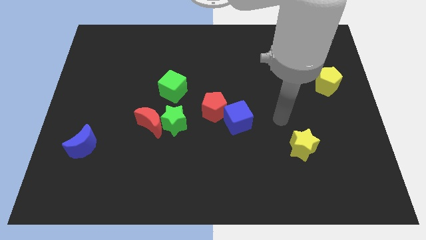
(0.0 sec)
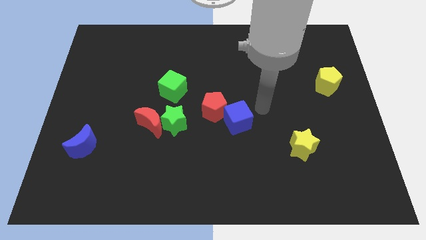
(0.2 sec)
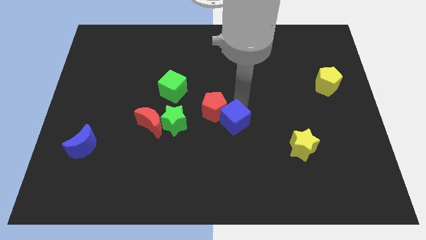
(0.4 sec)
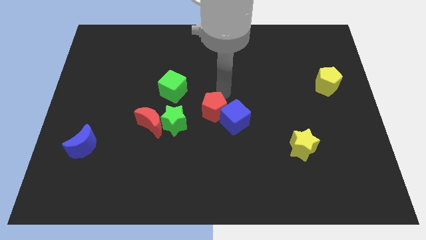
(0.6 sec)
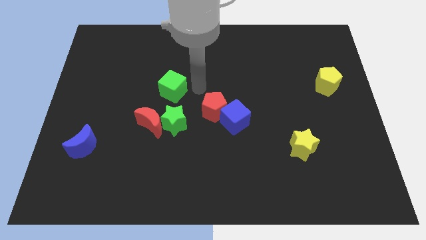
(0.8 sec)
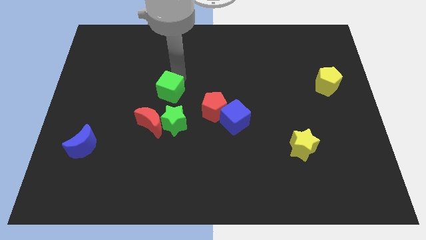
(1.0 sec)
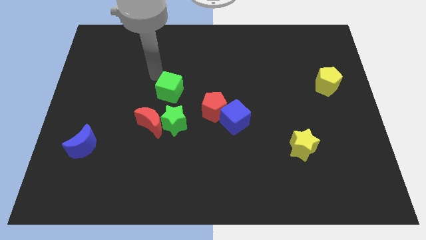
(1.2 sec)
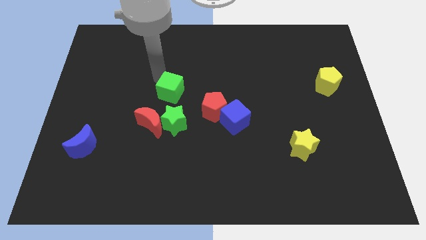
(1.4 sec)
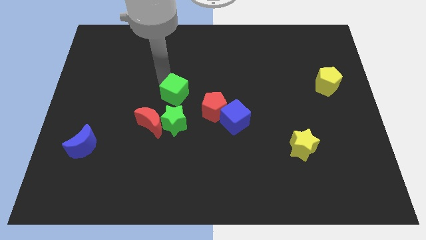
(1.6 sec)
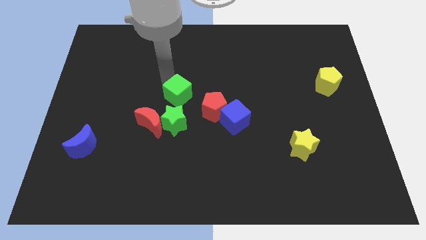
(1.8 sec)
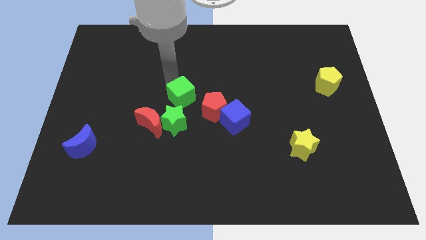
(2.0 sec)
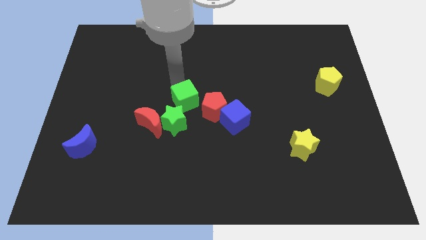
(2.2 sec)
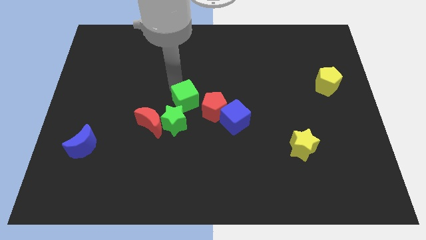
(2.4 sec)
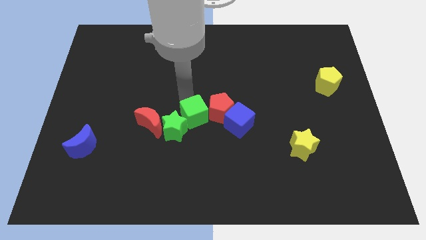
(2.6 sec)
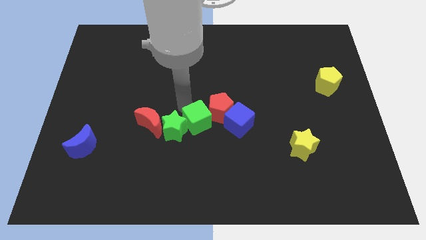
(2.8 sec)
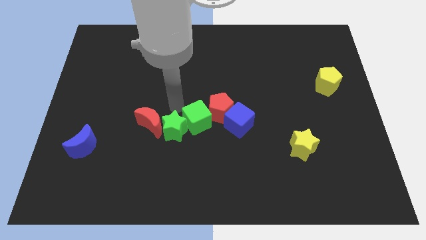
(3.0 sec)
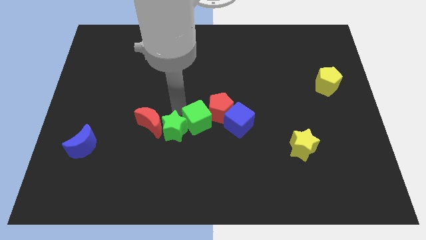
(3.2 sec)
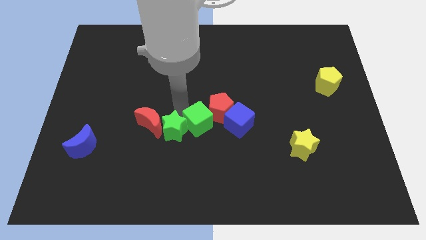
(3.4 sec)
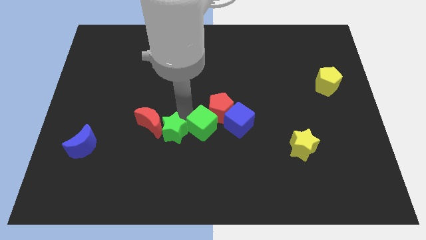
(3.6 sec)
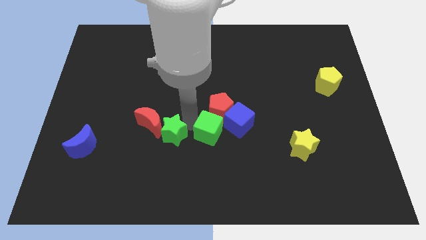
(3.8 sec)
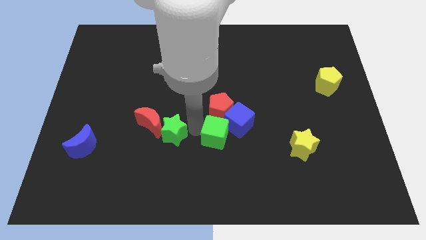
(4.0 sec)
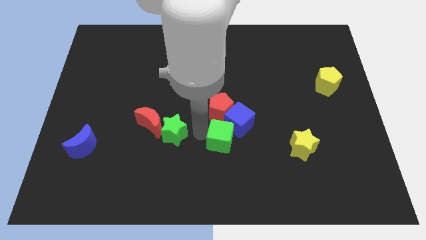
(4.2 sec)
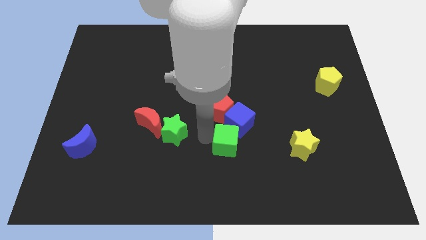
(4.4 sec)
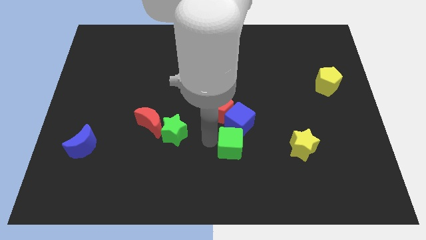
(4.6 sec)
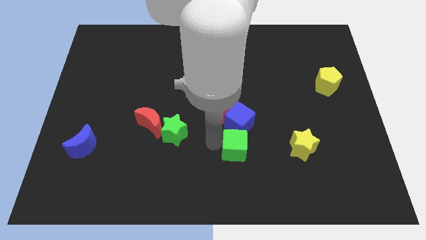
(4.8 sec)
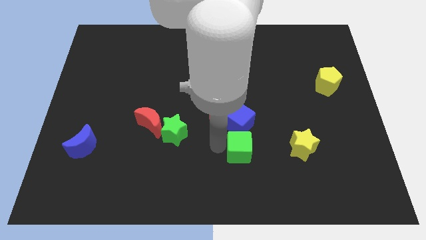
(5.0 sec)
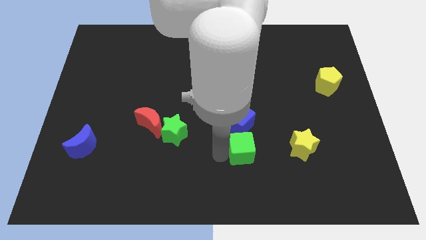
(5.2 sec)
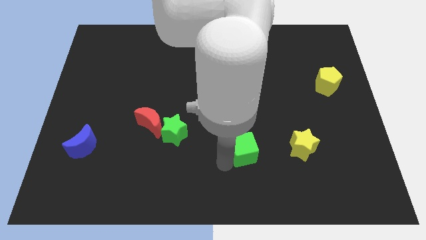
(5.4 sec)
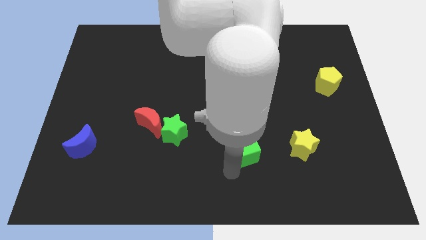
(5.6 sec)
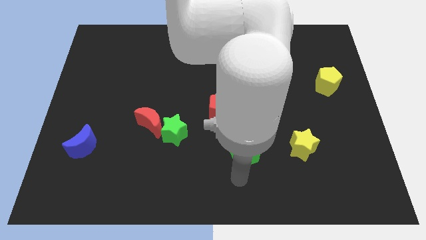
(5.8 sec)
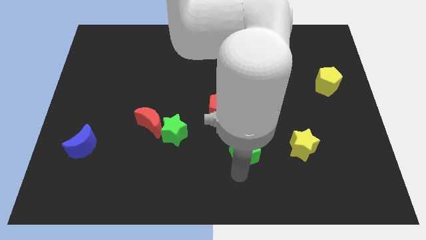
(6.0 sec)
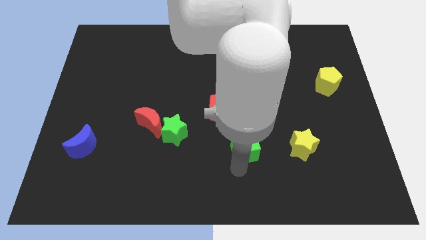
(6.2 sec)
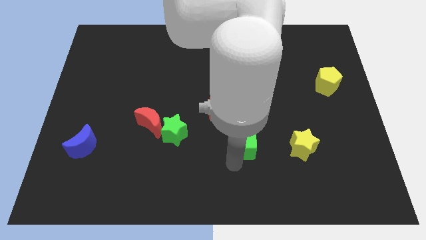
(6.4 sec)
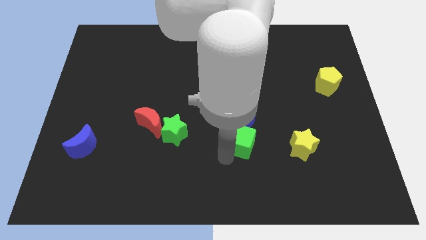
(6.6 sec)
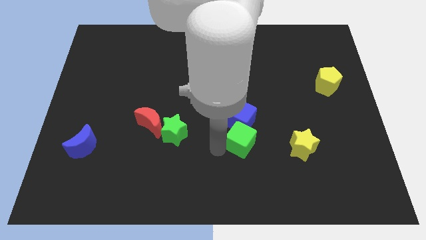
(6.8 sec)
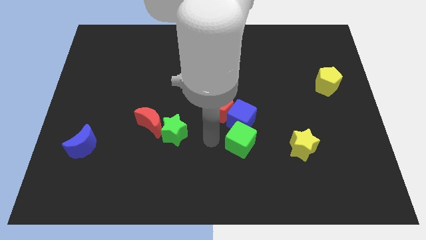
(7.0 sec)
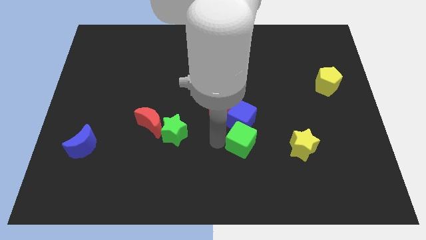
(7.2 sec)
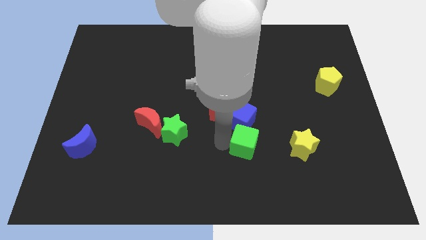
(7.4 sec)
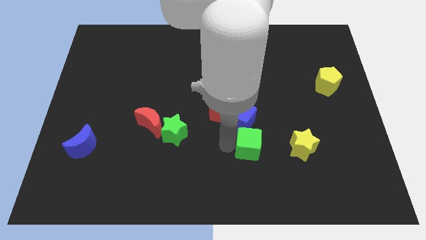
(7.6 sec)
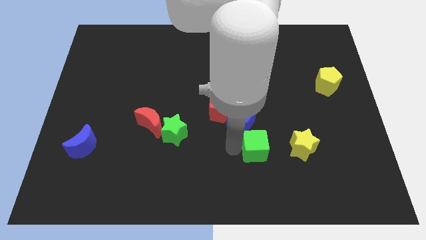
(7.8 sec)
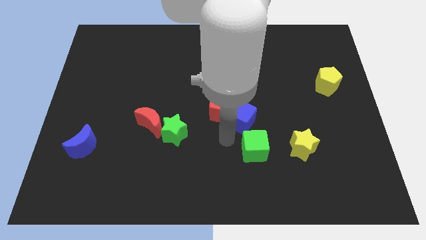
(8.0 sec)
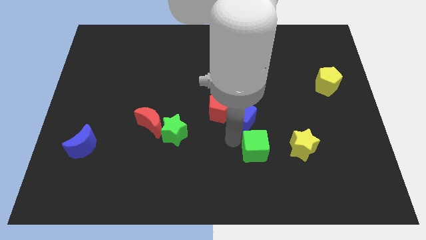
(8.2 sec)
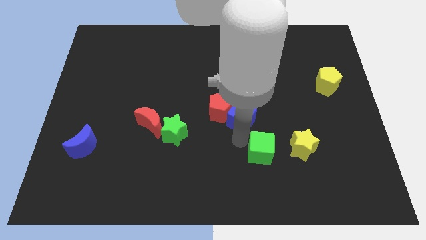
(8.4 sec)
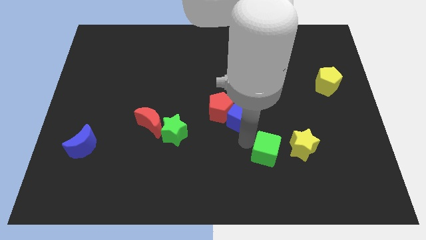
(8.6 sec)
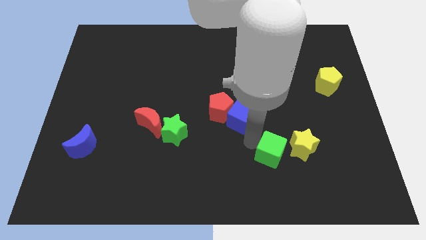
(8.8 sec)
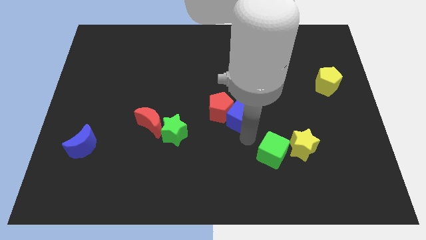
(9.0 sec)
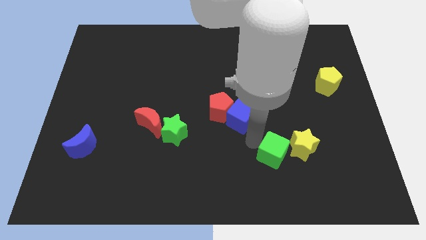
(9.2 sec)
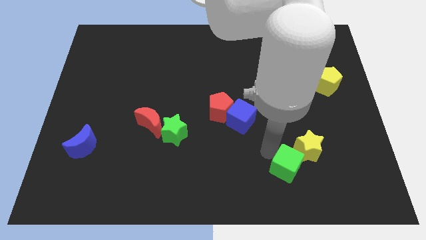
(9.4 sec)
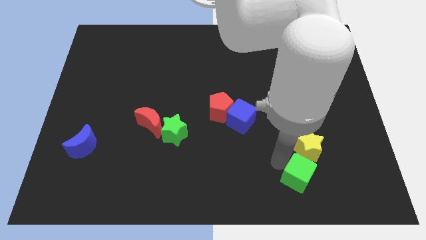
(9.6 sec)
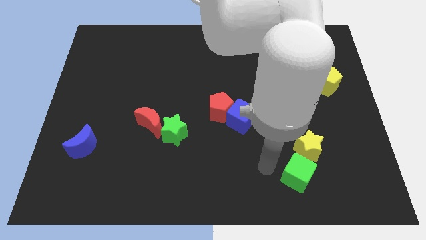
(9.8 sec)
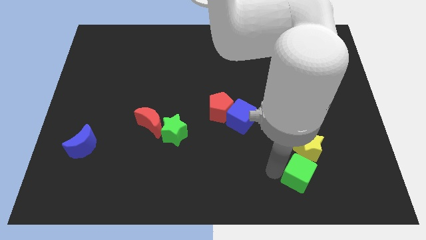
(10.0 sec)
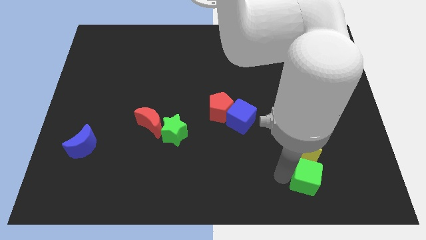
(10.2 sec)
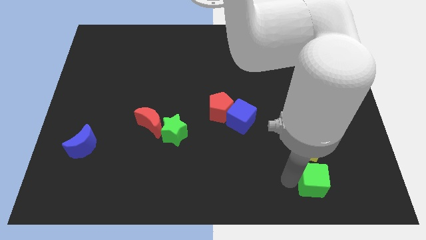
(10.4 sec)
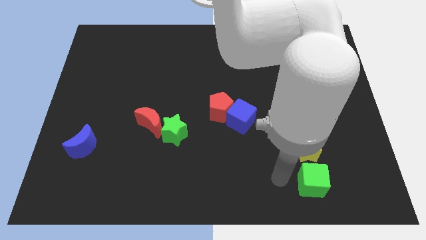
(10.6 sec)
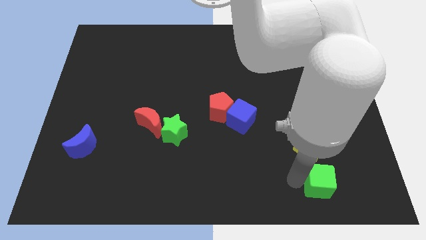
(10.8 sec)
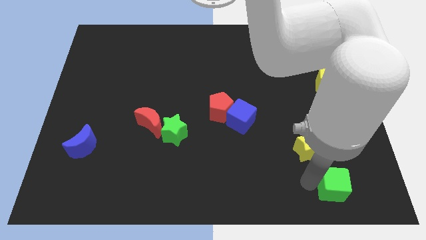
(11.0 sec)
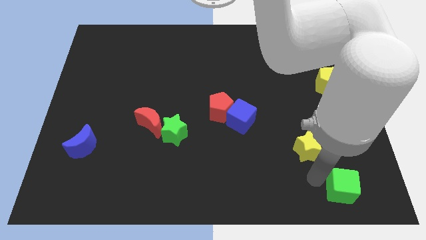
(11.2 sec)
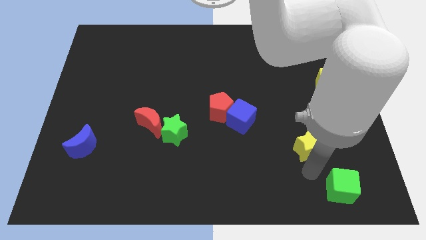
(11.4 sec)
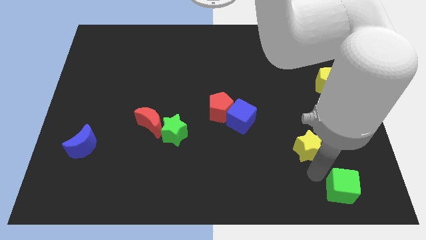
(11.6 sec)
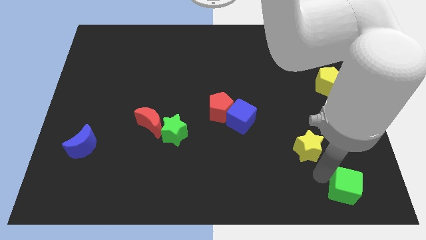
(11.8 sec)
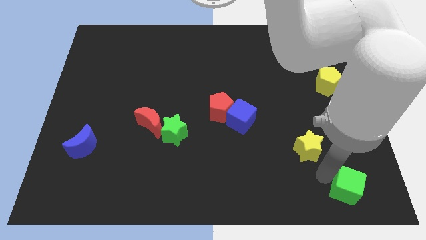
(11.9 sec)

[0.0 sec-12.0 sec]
push the green cube to the bottom right
